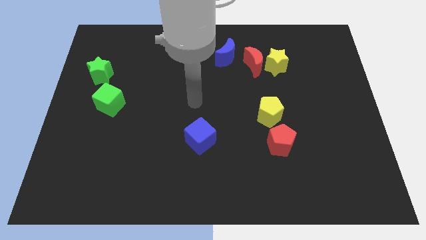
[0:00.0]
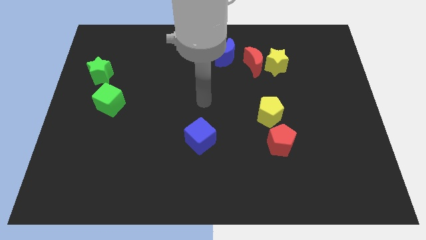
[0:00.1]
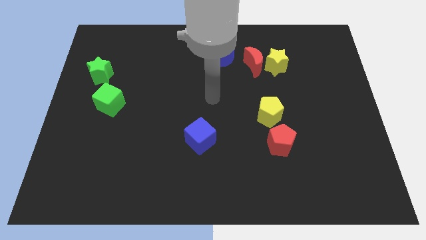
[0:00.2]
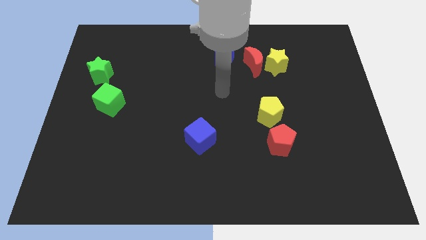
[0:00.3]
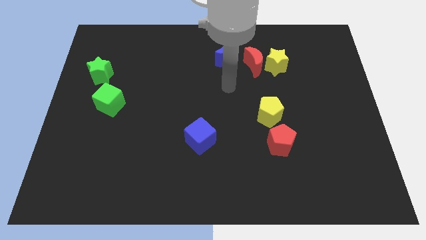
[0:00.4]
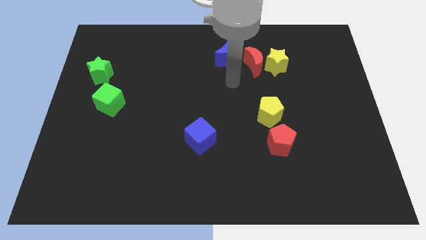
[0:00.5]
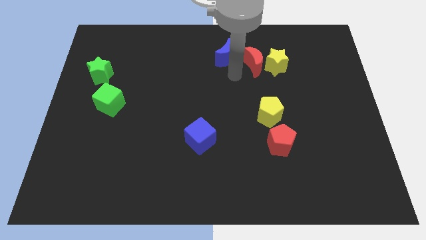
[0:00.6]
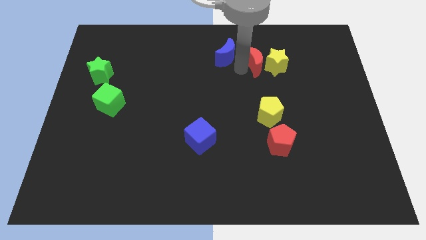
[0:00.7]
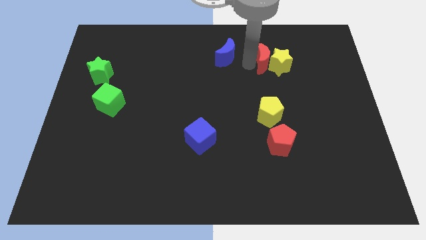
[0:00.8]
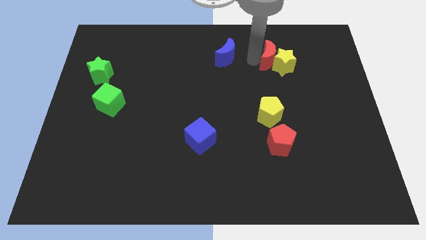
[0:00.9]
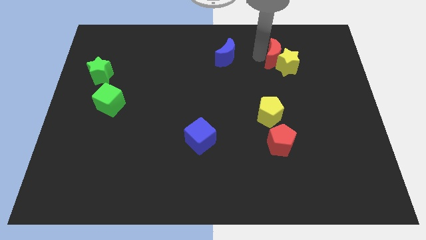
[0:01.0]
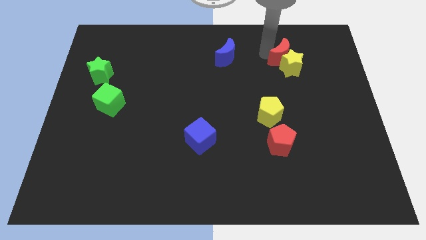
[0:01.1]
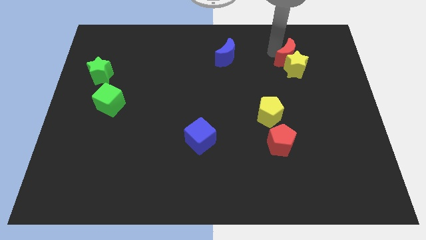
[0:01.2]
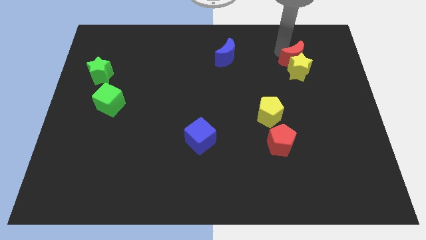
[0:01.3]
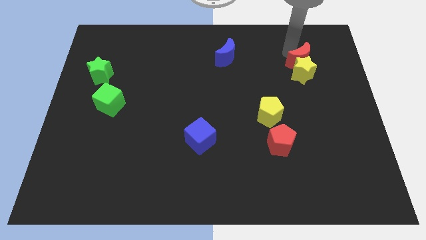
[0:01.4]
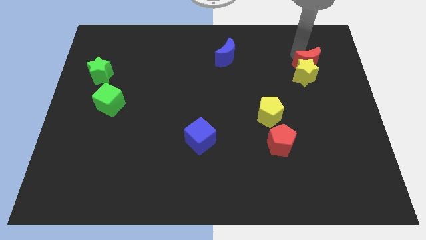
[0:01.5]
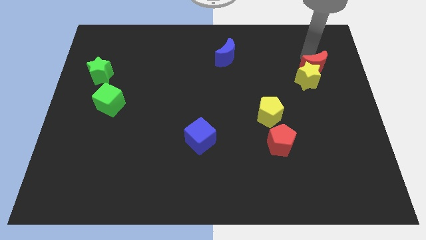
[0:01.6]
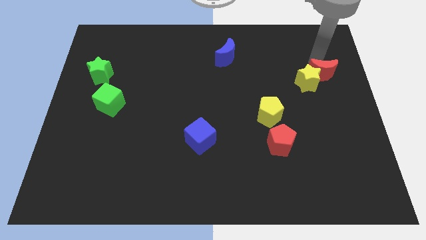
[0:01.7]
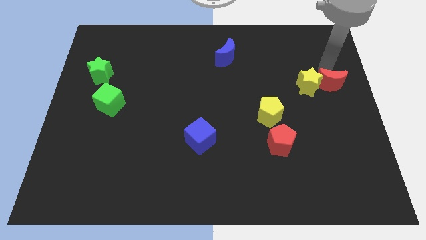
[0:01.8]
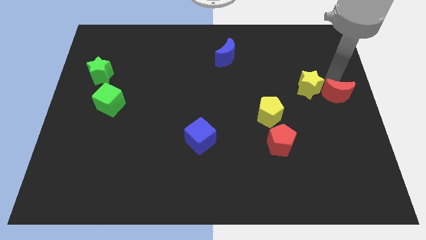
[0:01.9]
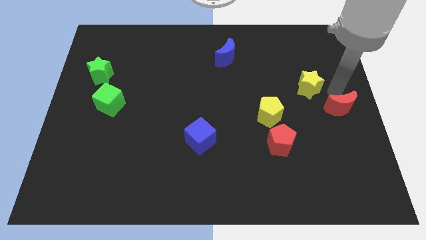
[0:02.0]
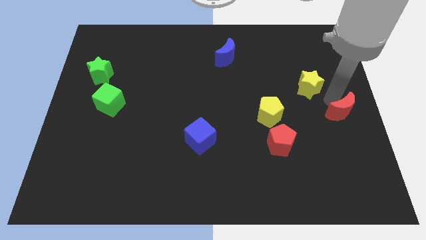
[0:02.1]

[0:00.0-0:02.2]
move the yellow star away from the red moon

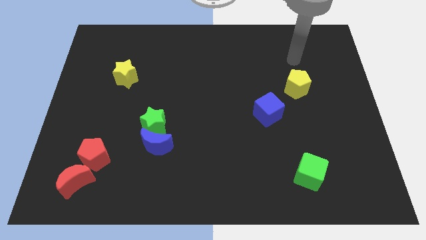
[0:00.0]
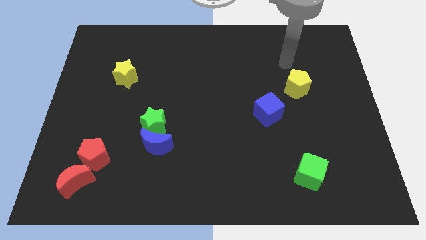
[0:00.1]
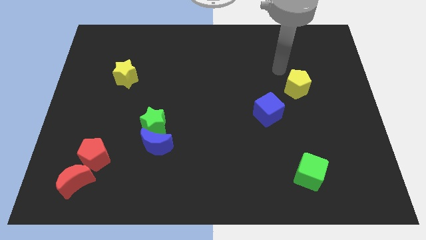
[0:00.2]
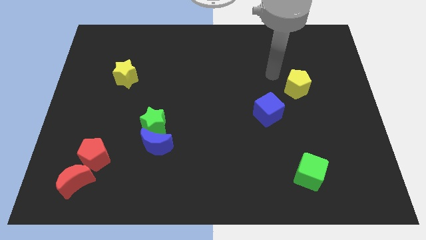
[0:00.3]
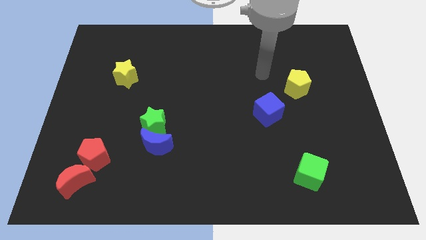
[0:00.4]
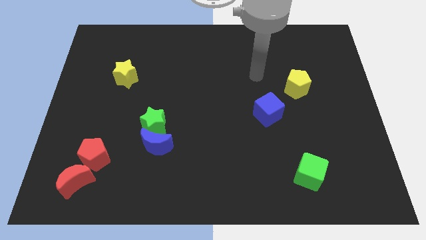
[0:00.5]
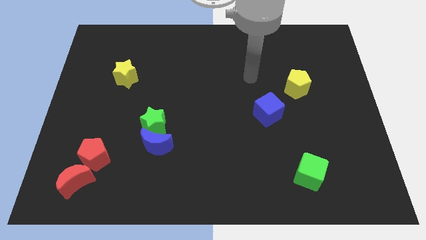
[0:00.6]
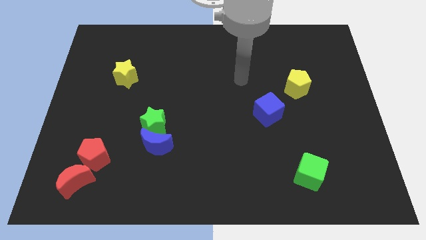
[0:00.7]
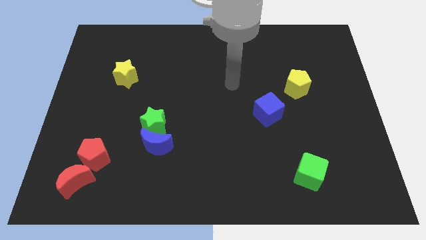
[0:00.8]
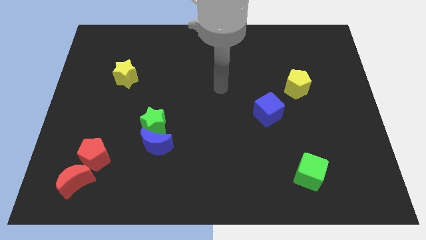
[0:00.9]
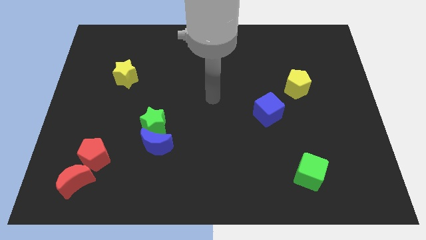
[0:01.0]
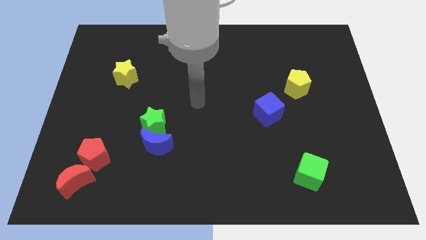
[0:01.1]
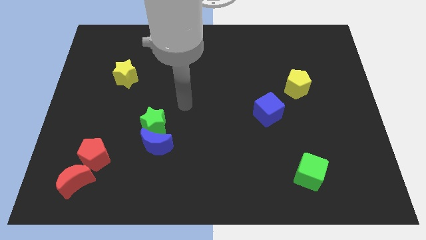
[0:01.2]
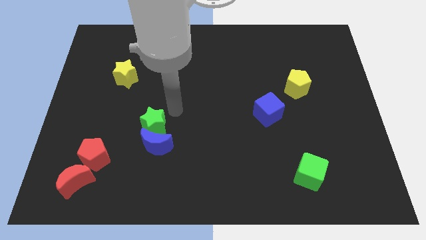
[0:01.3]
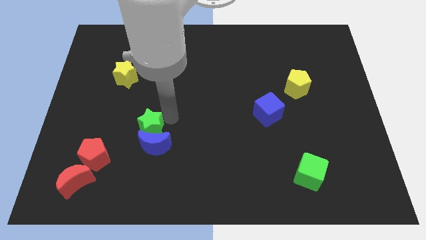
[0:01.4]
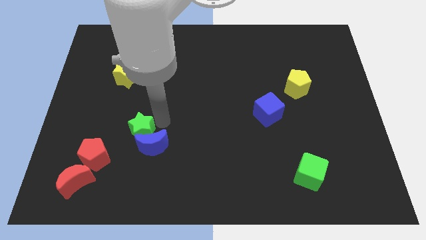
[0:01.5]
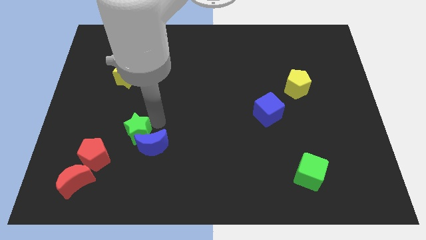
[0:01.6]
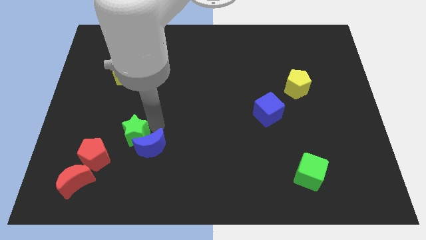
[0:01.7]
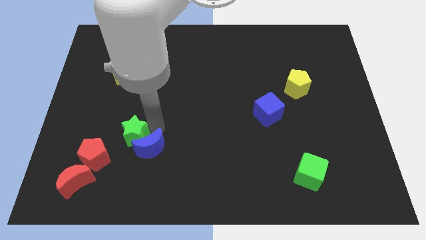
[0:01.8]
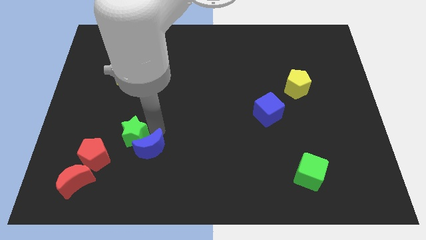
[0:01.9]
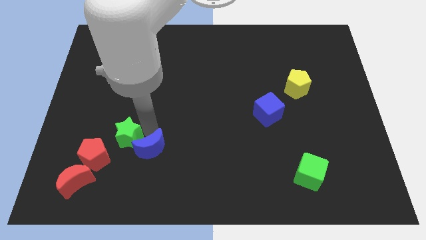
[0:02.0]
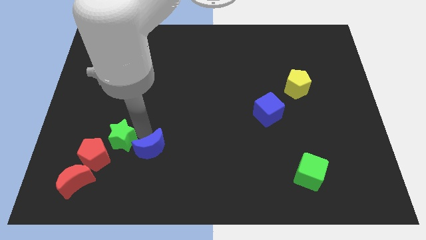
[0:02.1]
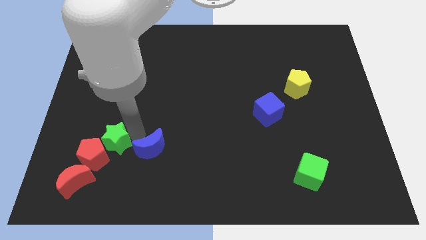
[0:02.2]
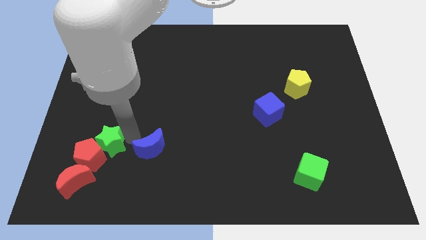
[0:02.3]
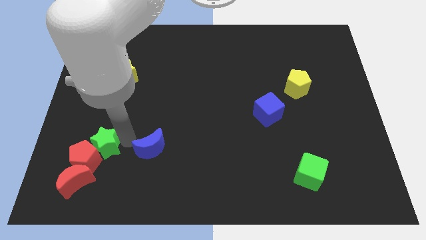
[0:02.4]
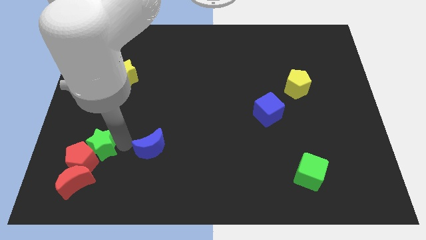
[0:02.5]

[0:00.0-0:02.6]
separate the blue moon from the green star

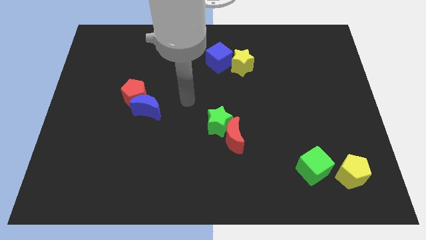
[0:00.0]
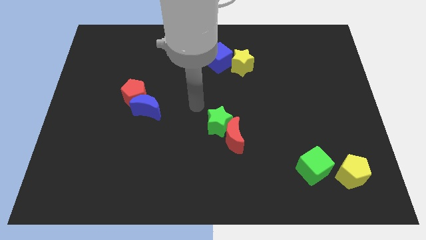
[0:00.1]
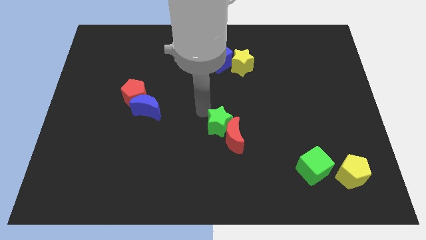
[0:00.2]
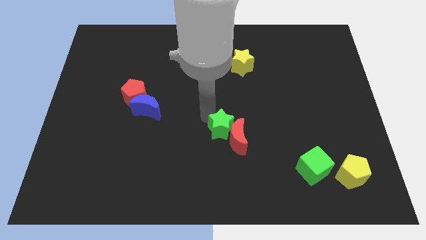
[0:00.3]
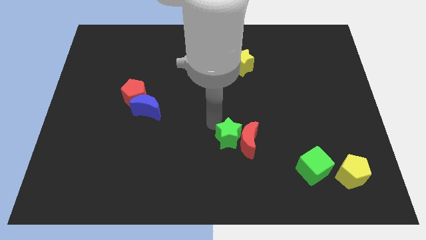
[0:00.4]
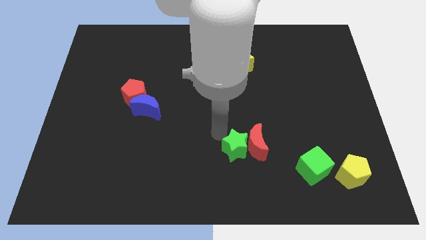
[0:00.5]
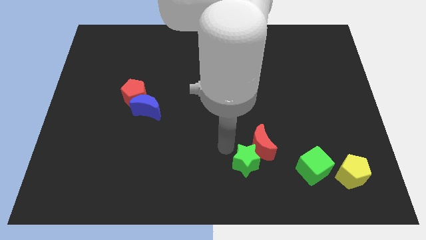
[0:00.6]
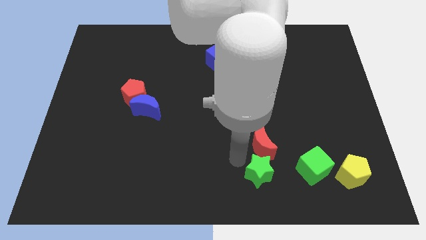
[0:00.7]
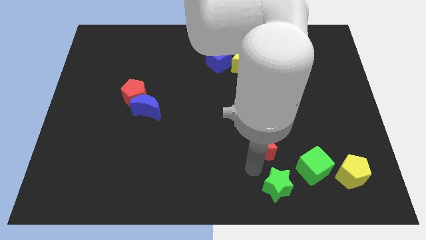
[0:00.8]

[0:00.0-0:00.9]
pull the red moon apart from the green star

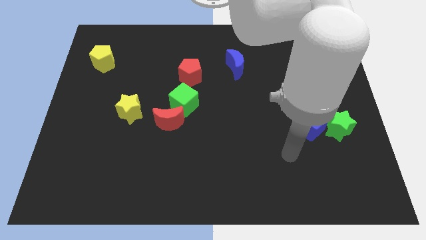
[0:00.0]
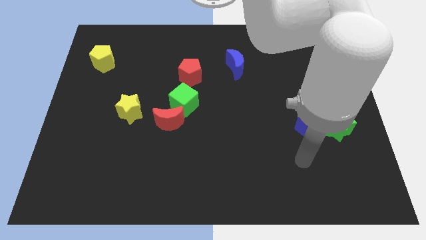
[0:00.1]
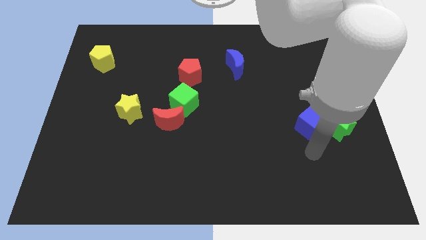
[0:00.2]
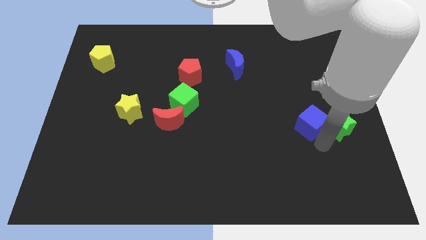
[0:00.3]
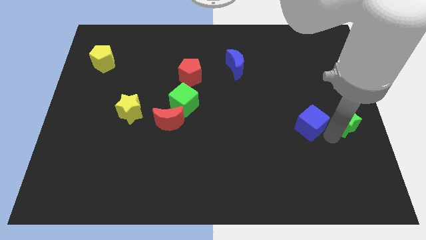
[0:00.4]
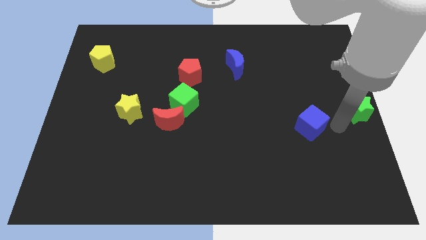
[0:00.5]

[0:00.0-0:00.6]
separate the blue cube from the green star

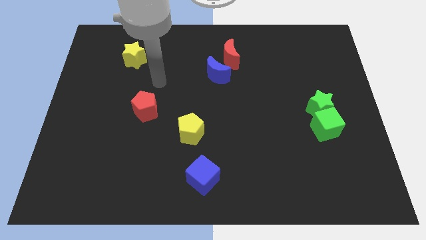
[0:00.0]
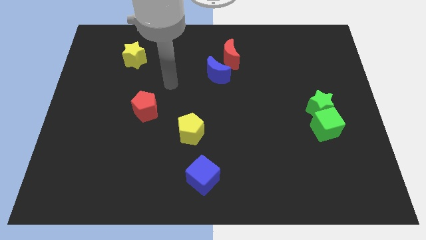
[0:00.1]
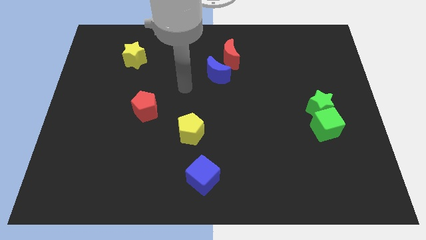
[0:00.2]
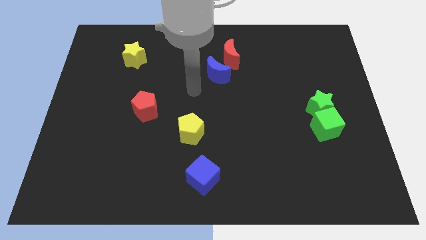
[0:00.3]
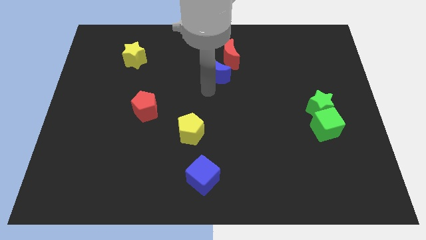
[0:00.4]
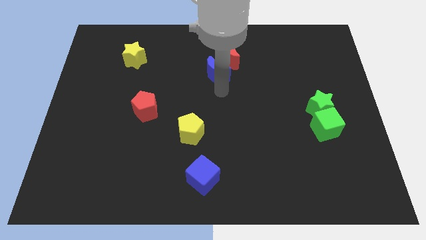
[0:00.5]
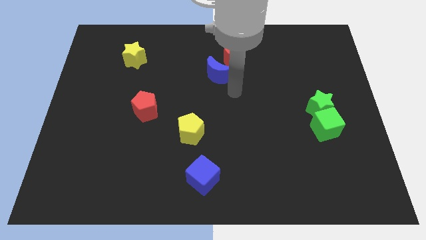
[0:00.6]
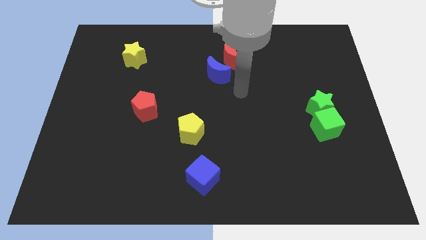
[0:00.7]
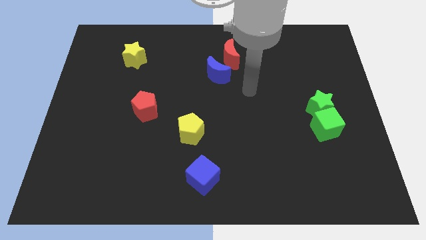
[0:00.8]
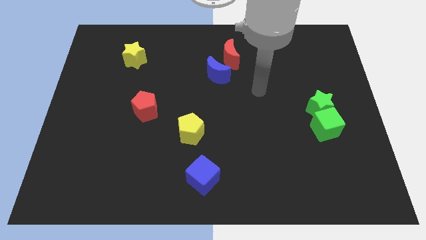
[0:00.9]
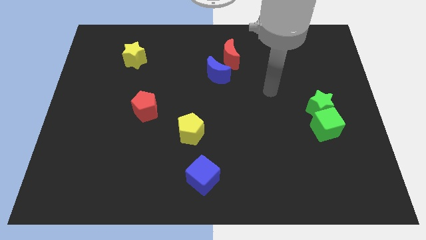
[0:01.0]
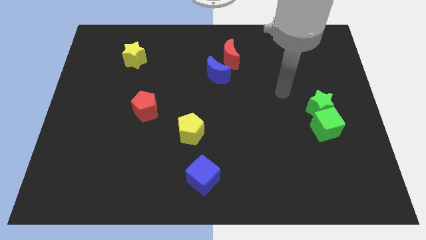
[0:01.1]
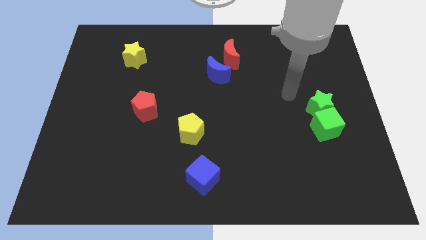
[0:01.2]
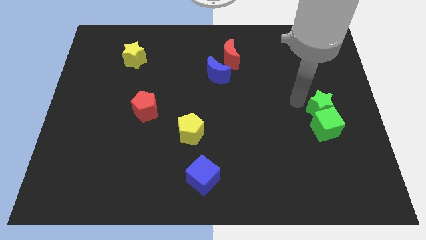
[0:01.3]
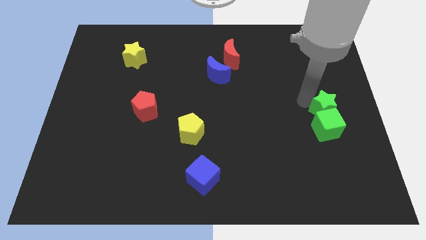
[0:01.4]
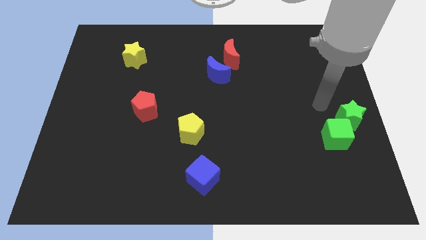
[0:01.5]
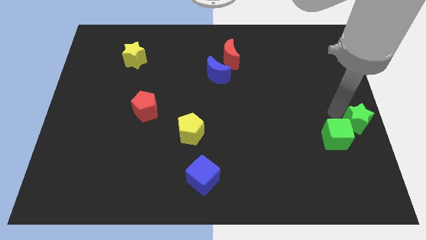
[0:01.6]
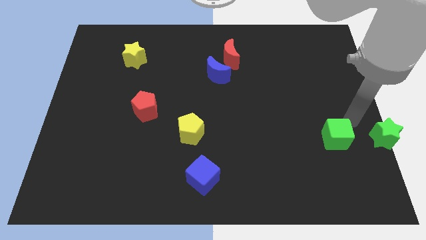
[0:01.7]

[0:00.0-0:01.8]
move the green cube away from the green star

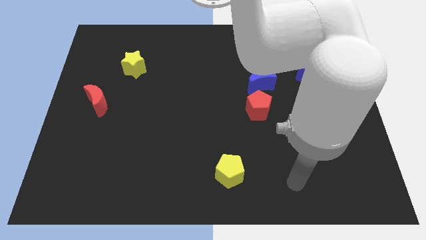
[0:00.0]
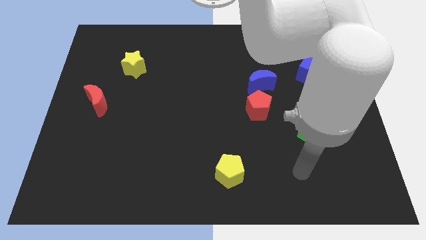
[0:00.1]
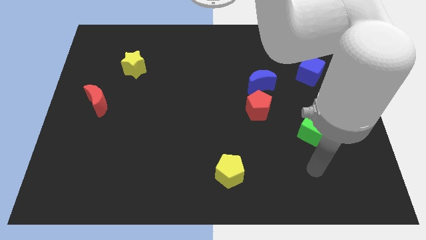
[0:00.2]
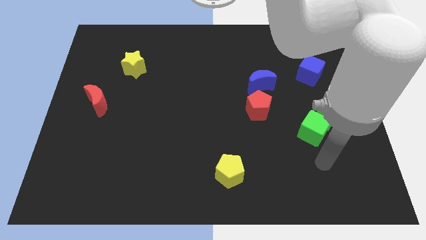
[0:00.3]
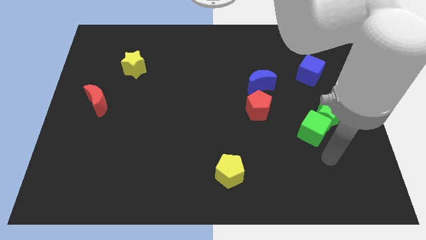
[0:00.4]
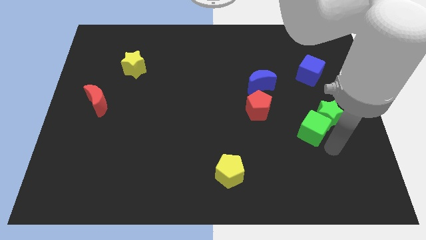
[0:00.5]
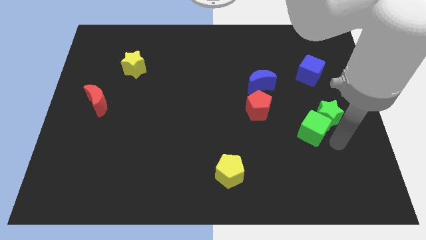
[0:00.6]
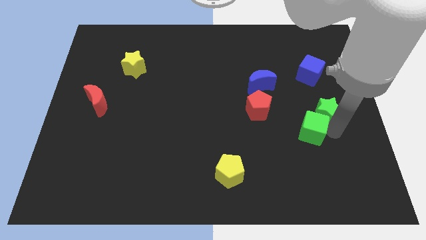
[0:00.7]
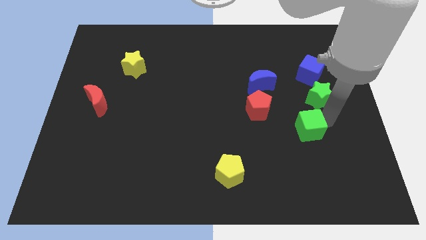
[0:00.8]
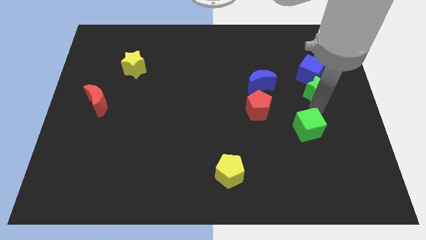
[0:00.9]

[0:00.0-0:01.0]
separate the green cube from the green star

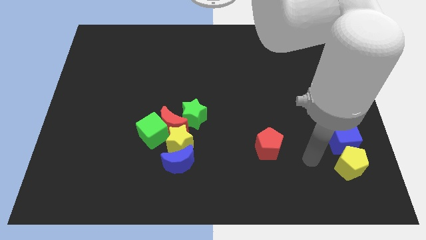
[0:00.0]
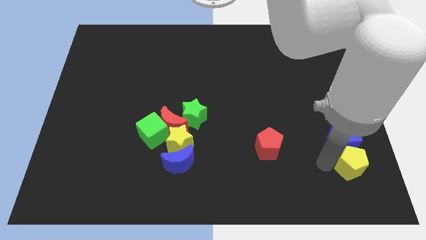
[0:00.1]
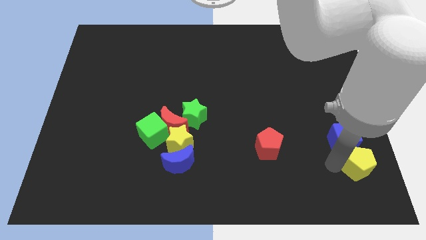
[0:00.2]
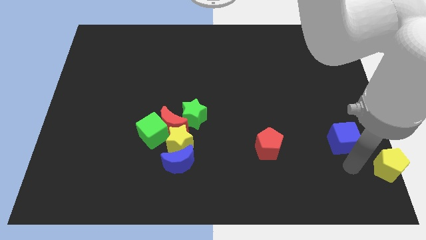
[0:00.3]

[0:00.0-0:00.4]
pull the blue cube apart from the yellow pentagon
